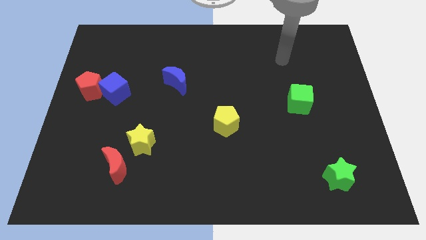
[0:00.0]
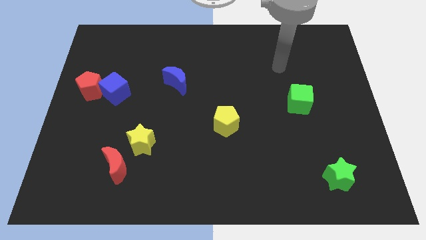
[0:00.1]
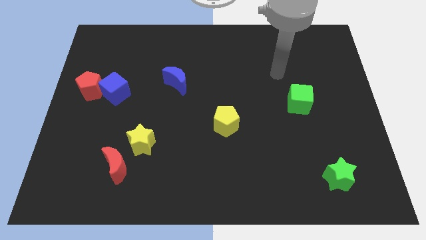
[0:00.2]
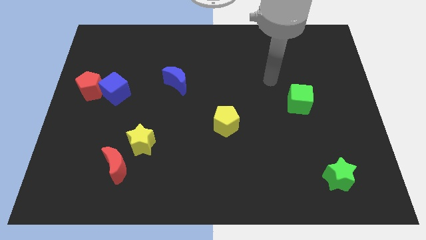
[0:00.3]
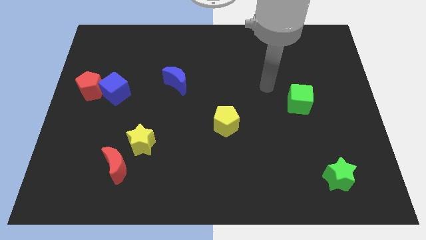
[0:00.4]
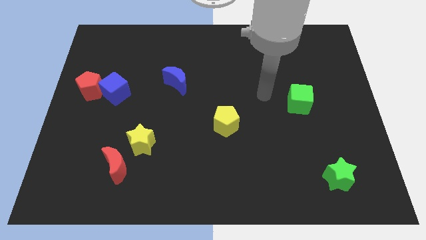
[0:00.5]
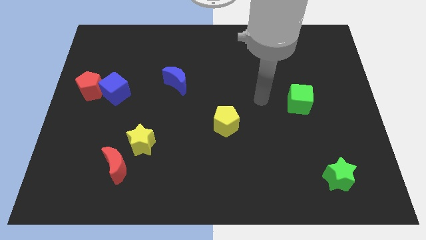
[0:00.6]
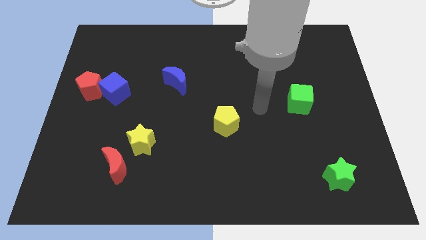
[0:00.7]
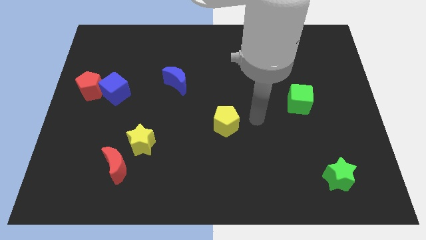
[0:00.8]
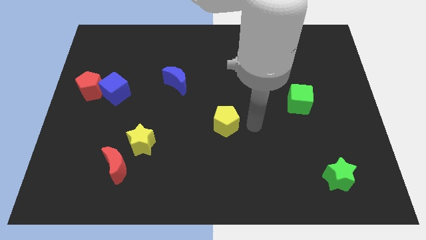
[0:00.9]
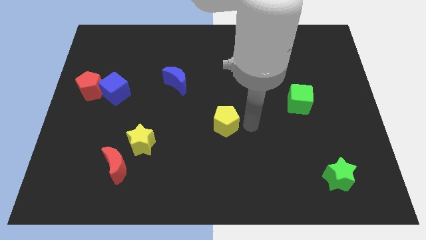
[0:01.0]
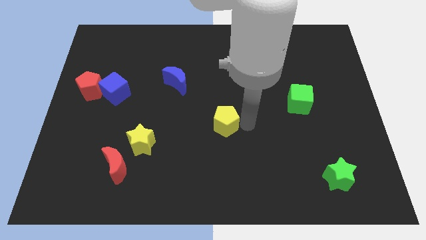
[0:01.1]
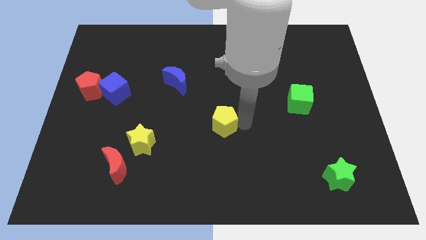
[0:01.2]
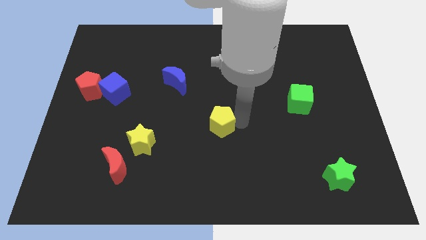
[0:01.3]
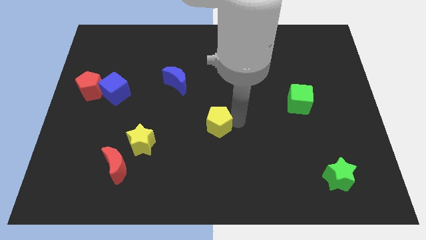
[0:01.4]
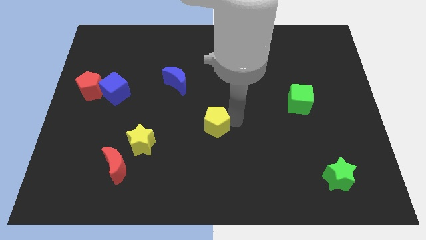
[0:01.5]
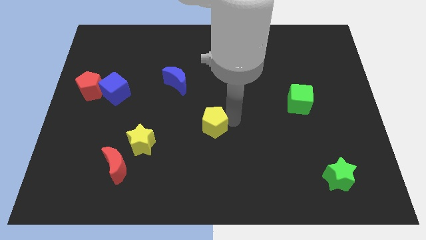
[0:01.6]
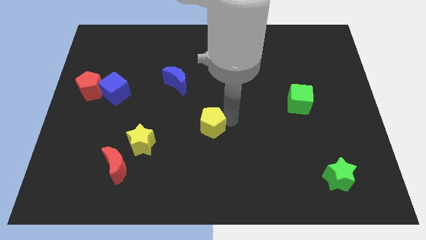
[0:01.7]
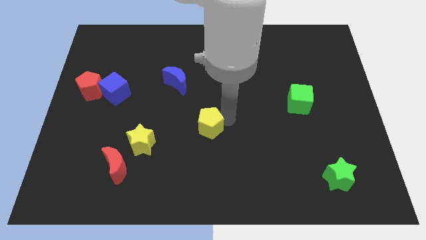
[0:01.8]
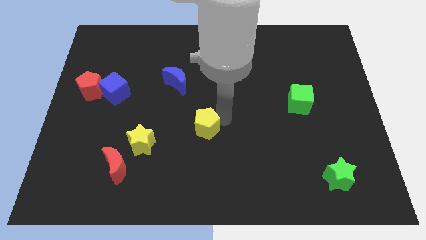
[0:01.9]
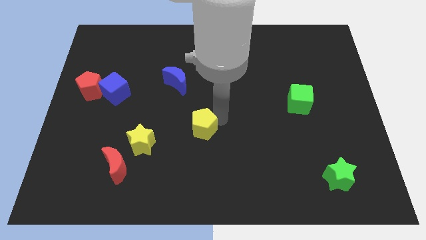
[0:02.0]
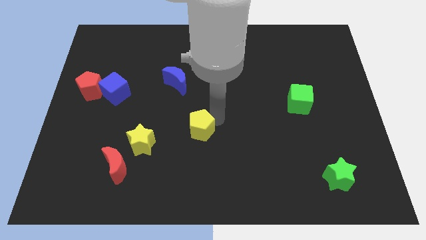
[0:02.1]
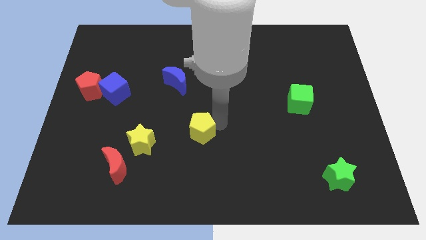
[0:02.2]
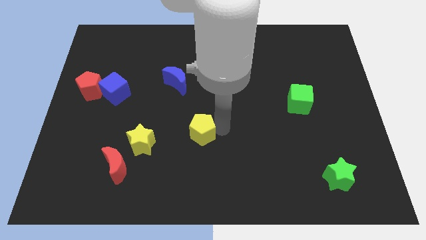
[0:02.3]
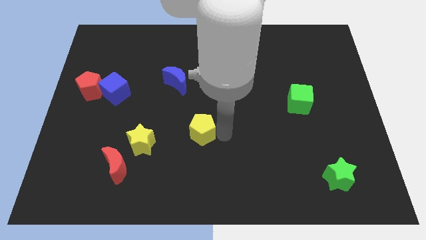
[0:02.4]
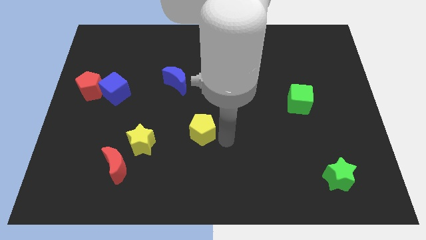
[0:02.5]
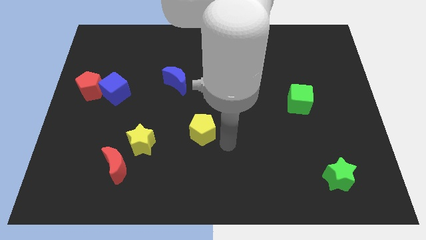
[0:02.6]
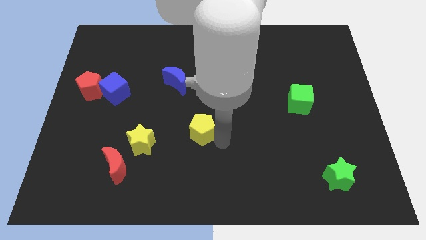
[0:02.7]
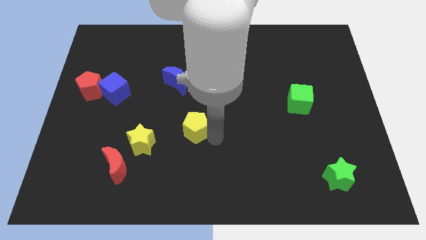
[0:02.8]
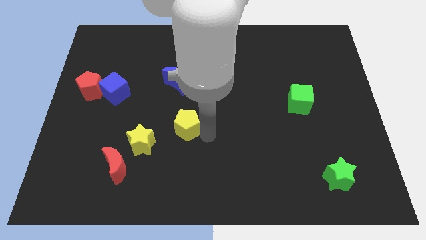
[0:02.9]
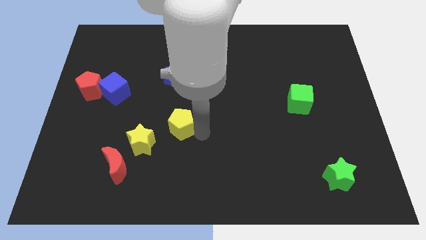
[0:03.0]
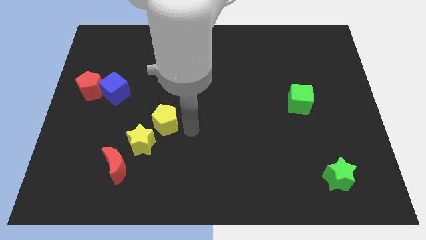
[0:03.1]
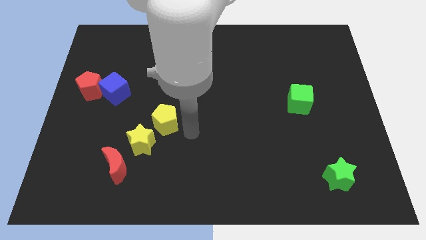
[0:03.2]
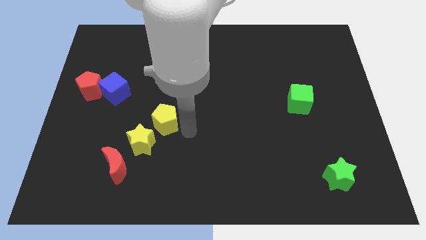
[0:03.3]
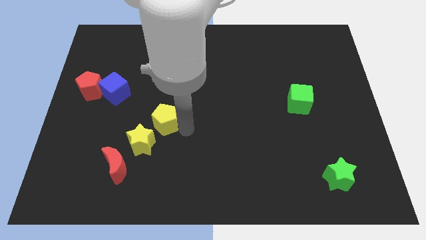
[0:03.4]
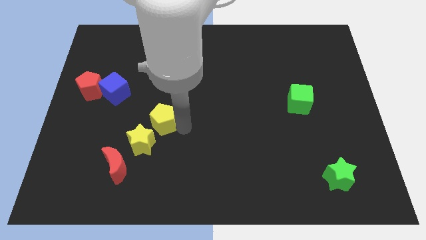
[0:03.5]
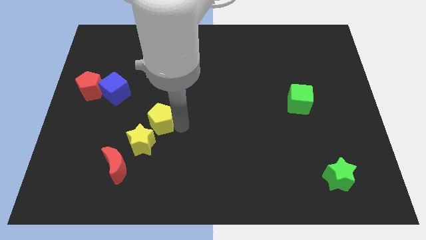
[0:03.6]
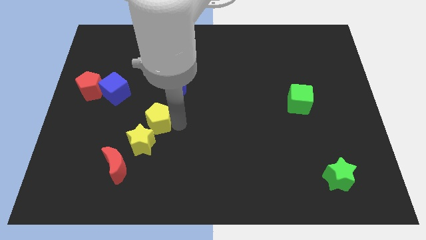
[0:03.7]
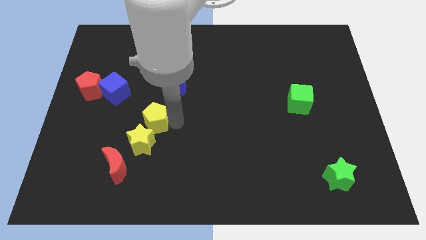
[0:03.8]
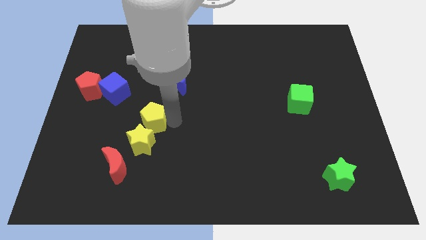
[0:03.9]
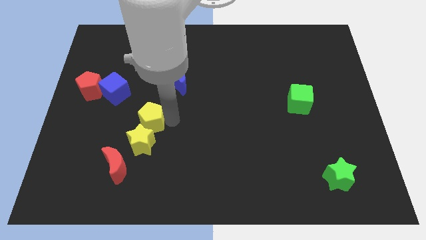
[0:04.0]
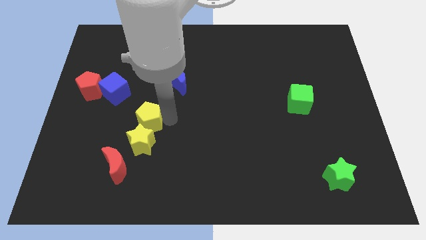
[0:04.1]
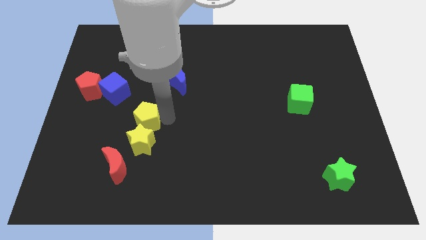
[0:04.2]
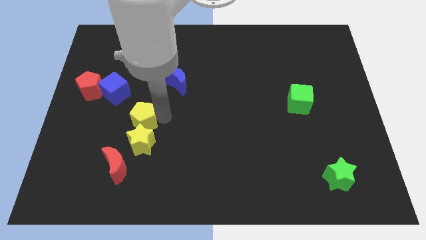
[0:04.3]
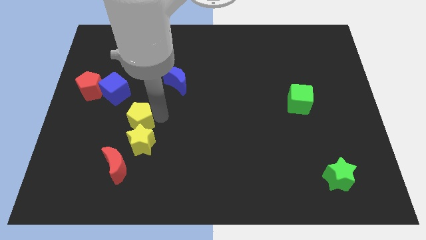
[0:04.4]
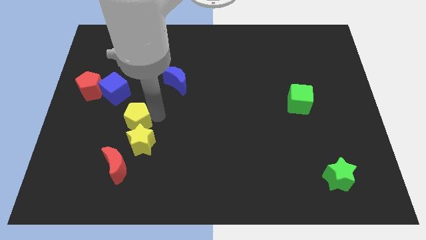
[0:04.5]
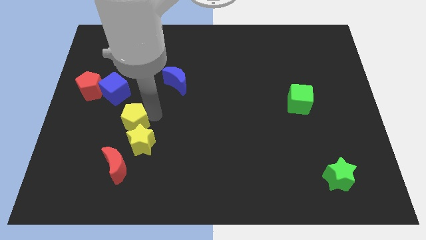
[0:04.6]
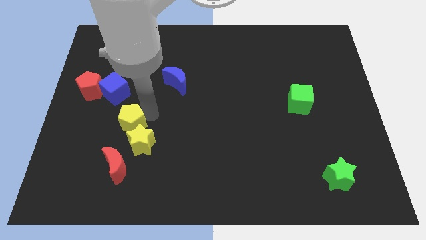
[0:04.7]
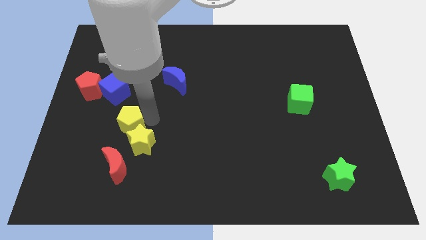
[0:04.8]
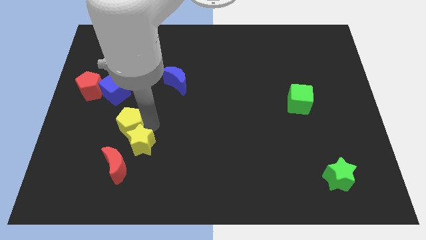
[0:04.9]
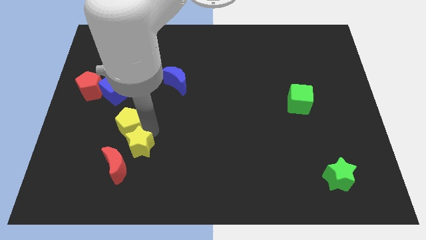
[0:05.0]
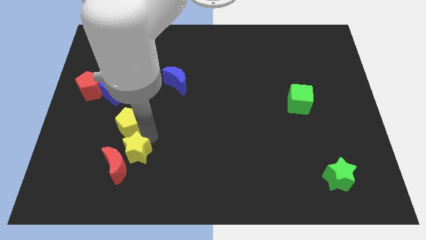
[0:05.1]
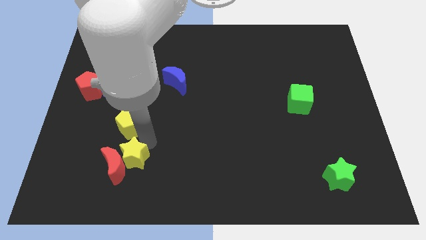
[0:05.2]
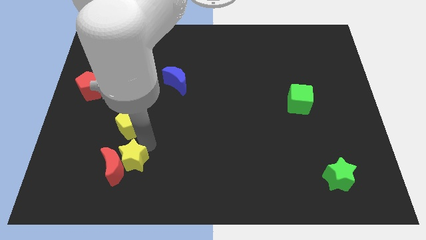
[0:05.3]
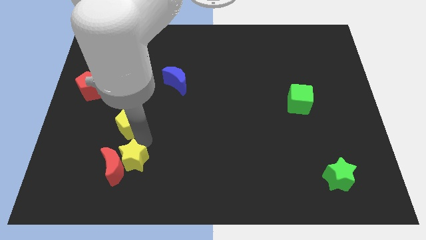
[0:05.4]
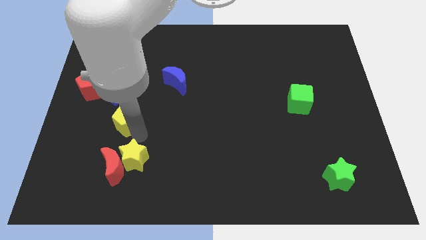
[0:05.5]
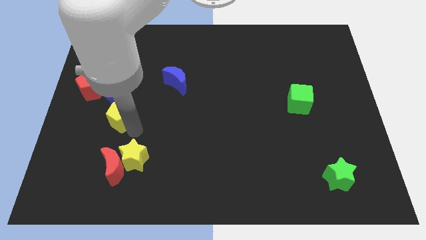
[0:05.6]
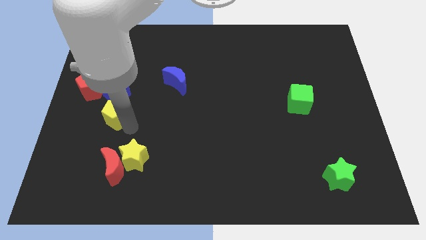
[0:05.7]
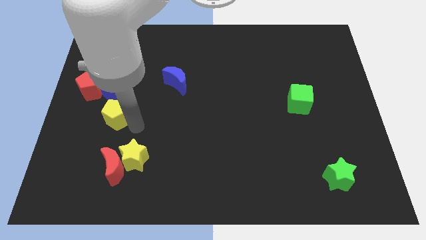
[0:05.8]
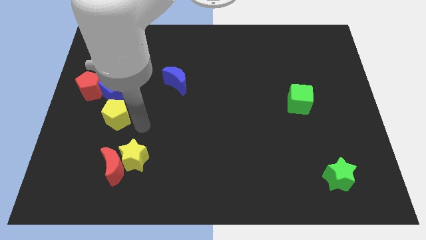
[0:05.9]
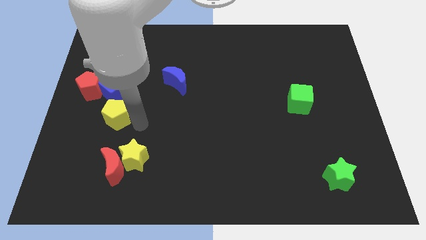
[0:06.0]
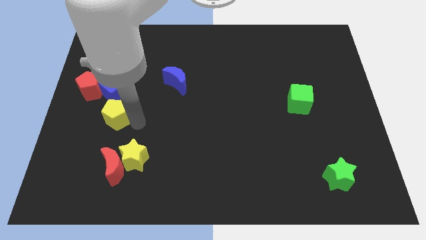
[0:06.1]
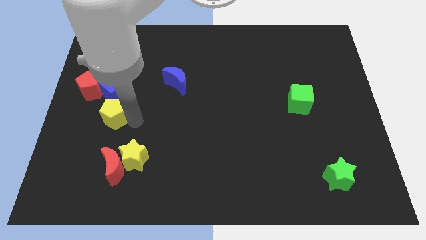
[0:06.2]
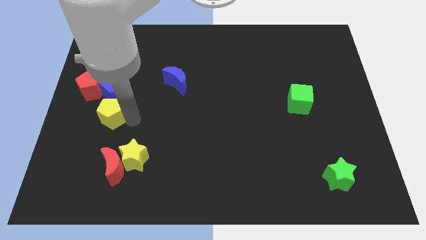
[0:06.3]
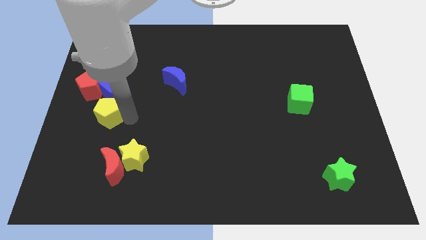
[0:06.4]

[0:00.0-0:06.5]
put the yellow pentagon diagonally down and to the left of the blue cube

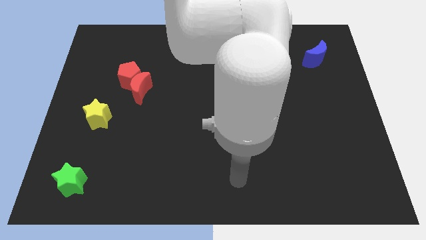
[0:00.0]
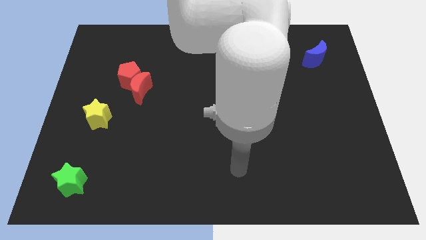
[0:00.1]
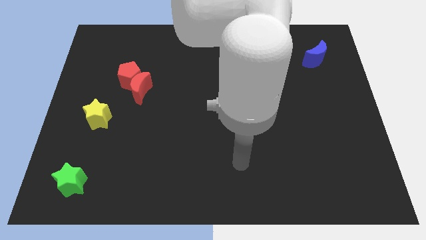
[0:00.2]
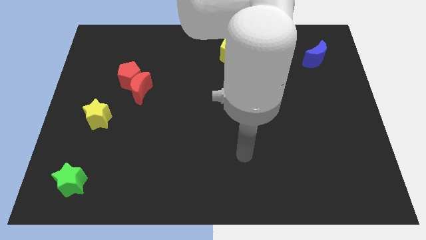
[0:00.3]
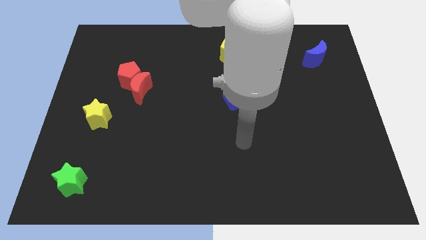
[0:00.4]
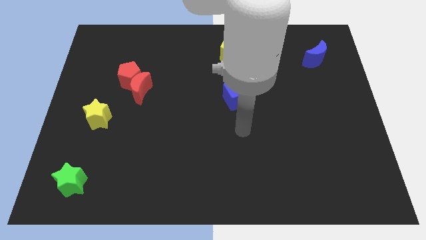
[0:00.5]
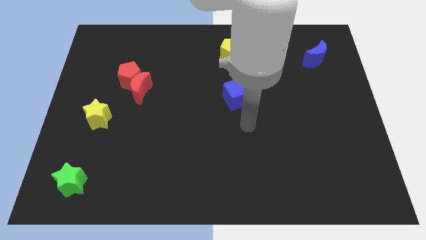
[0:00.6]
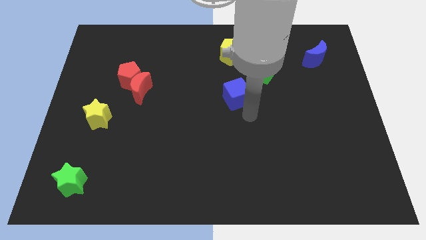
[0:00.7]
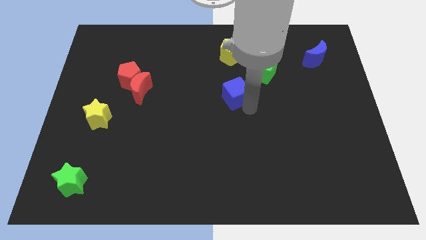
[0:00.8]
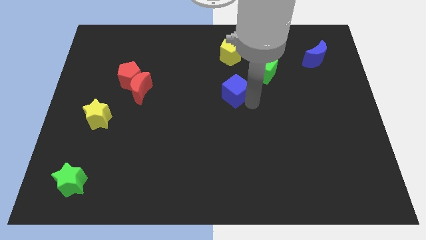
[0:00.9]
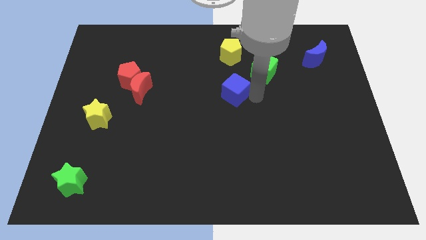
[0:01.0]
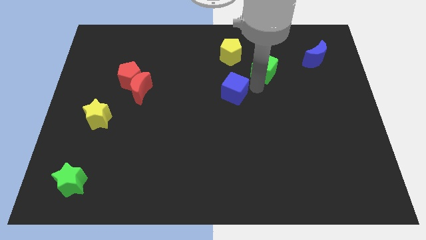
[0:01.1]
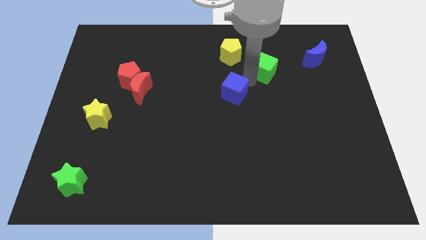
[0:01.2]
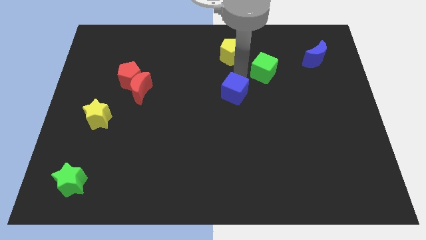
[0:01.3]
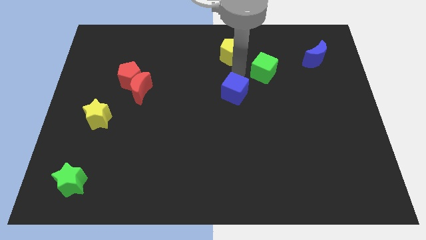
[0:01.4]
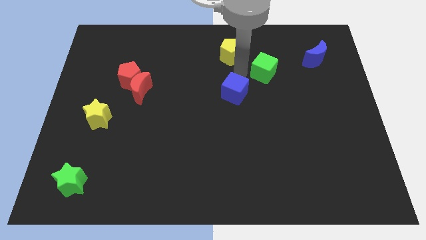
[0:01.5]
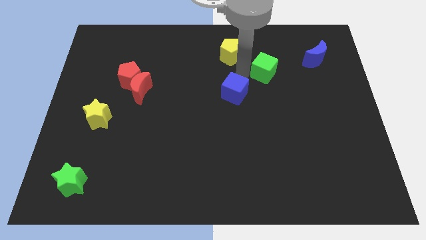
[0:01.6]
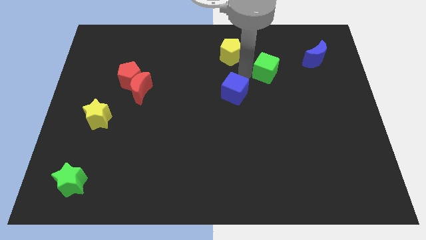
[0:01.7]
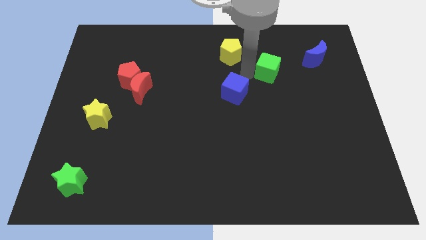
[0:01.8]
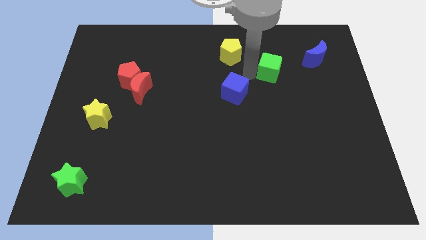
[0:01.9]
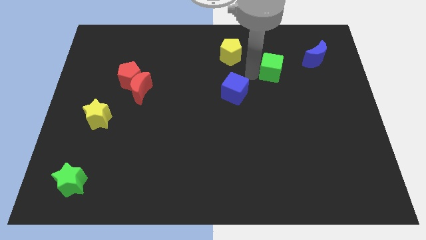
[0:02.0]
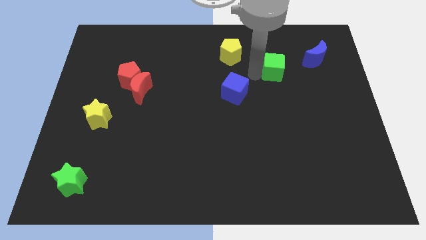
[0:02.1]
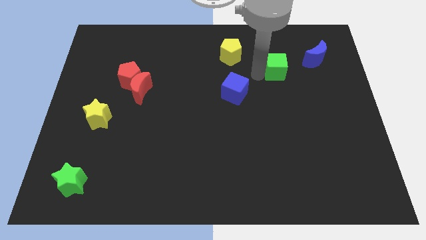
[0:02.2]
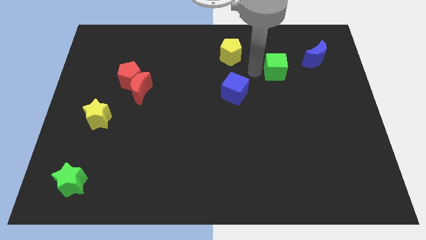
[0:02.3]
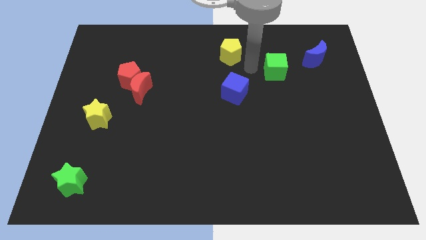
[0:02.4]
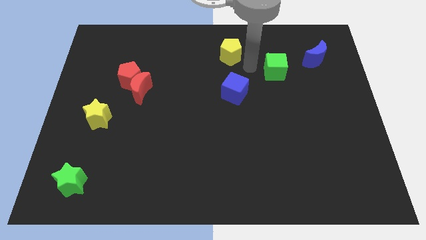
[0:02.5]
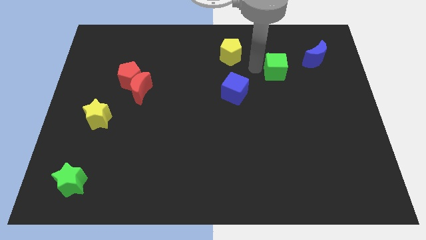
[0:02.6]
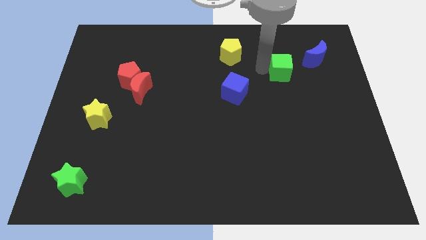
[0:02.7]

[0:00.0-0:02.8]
slide the green cube to the bottom left side of the blue moon
